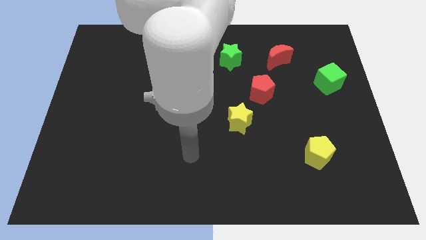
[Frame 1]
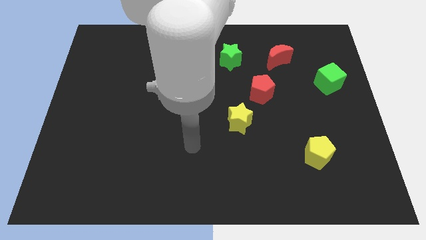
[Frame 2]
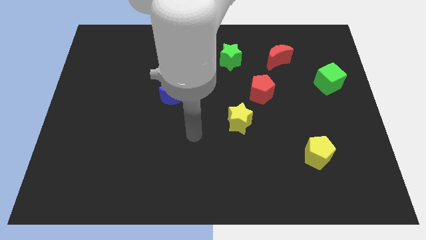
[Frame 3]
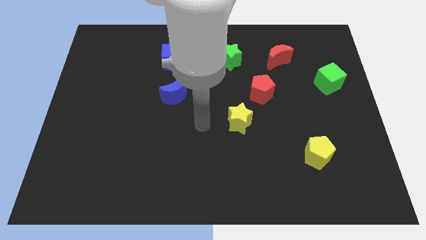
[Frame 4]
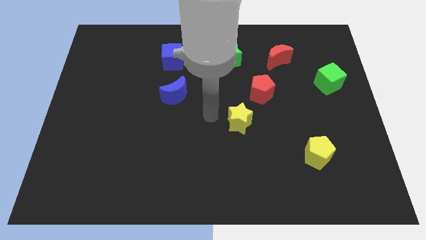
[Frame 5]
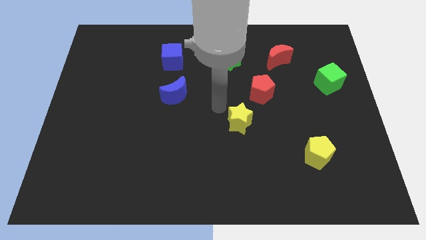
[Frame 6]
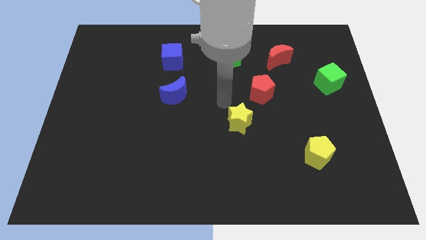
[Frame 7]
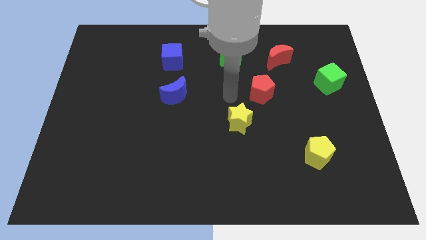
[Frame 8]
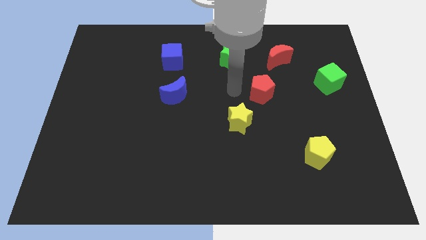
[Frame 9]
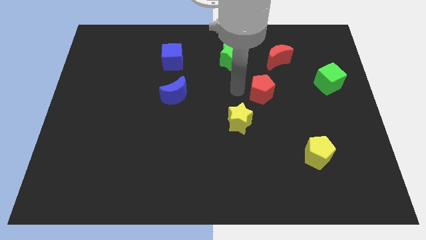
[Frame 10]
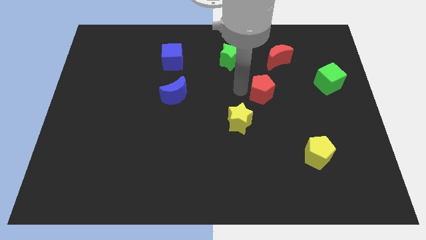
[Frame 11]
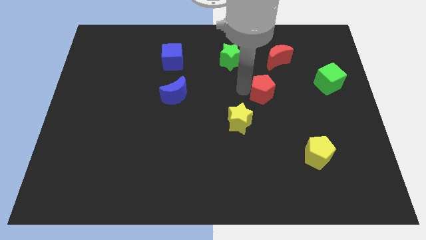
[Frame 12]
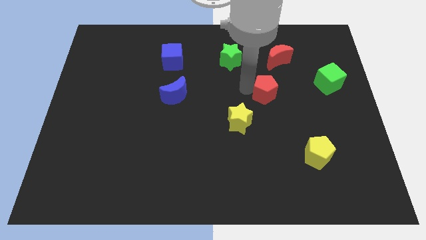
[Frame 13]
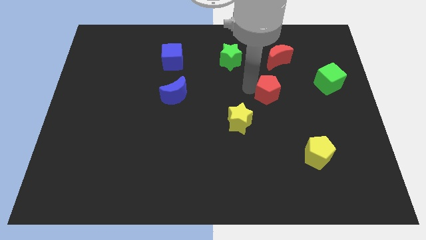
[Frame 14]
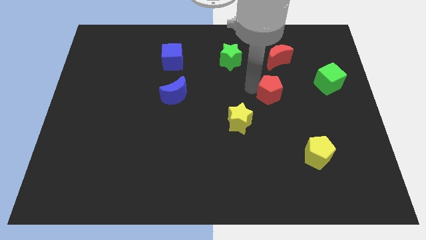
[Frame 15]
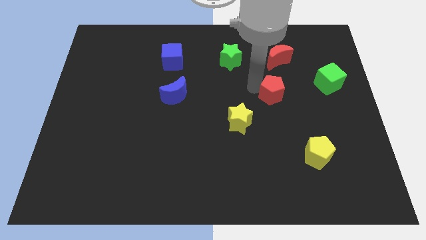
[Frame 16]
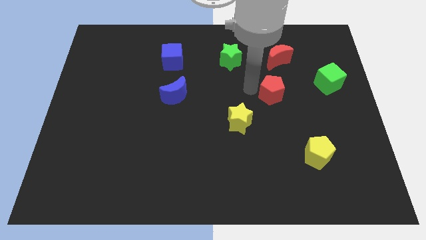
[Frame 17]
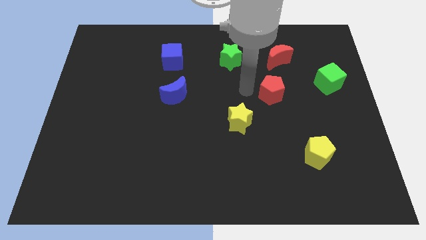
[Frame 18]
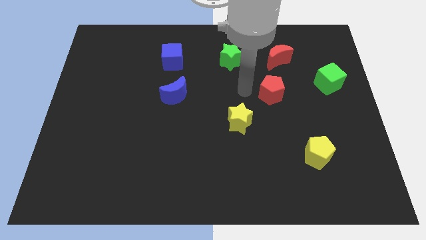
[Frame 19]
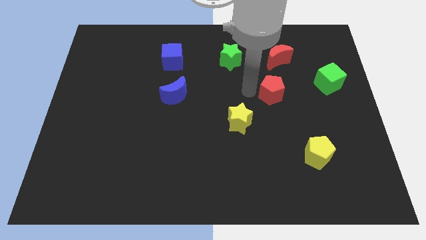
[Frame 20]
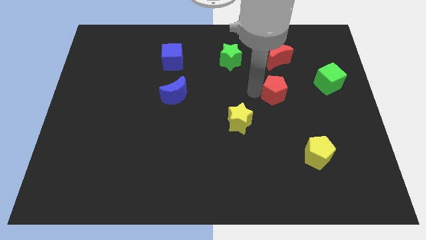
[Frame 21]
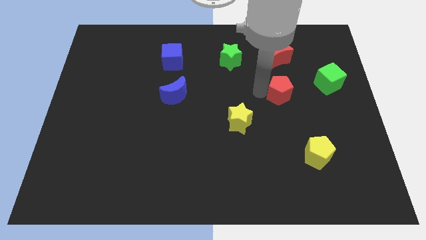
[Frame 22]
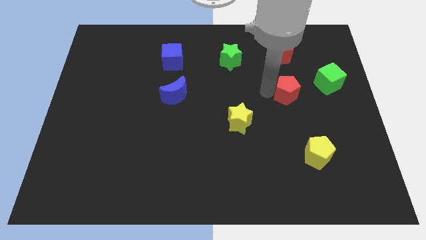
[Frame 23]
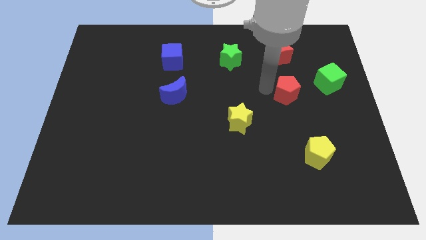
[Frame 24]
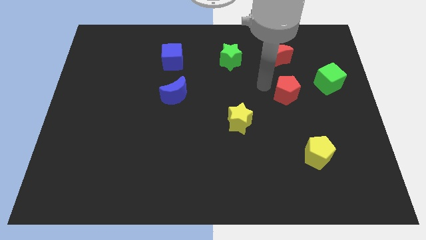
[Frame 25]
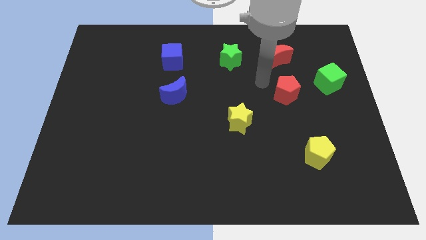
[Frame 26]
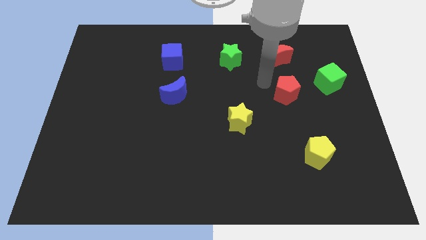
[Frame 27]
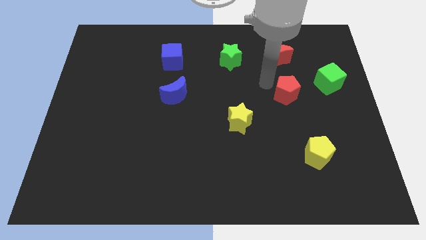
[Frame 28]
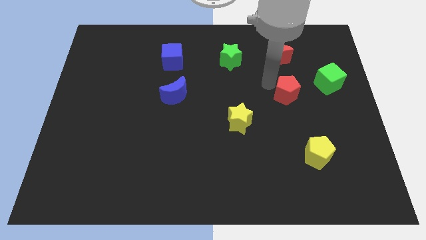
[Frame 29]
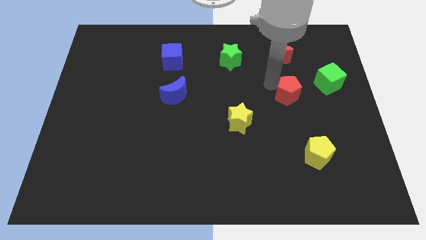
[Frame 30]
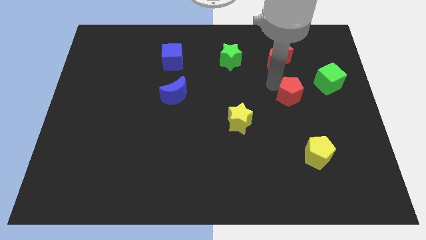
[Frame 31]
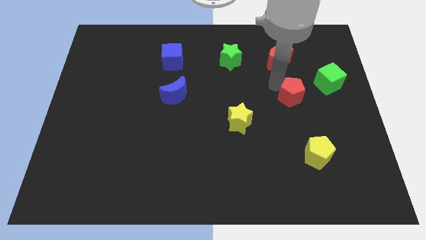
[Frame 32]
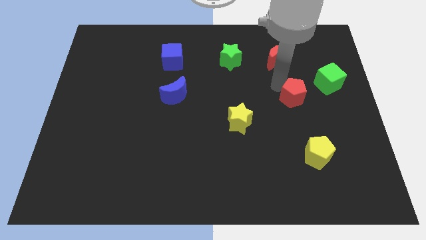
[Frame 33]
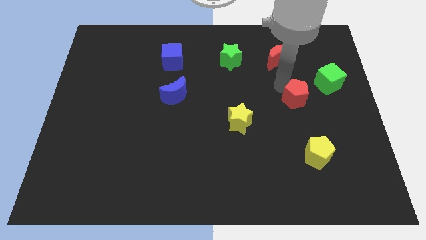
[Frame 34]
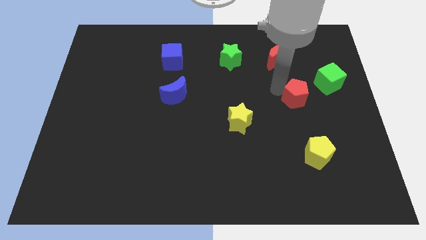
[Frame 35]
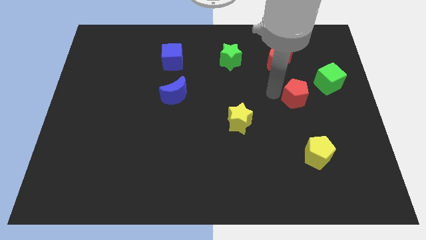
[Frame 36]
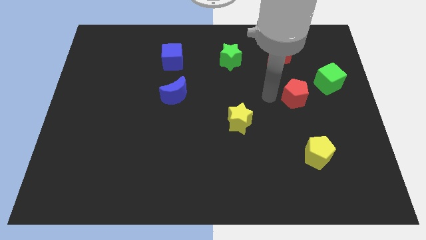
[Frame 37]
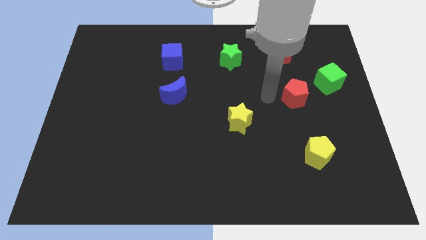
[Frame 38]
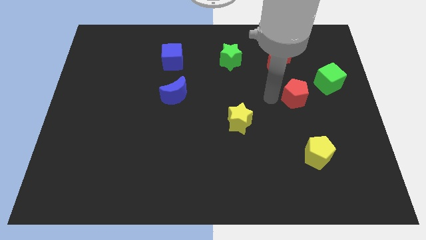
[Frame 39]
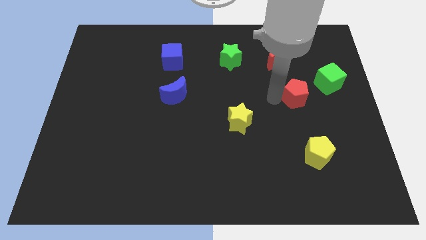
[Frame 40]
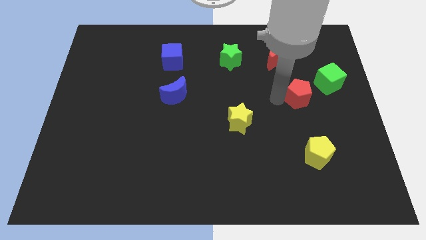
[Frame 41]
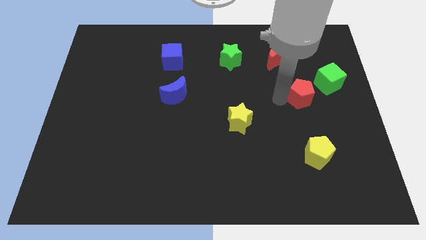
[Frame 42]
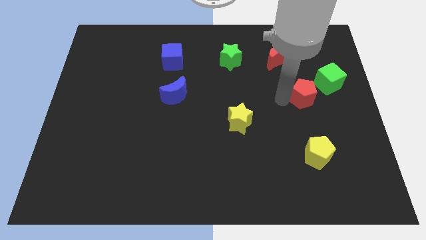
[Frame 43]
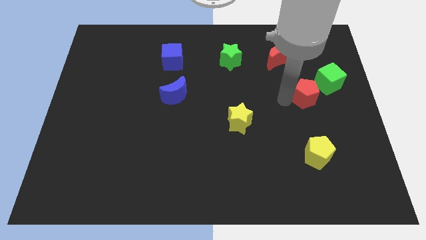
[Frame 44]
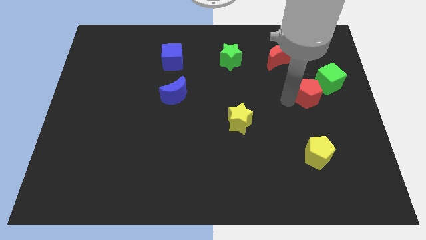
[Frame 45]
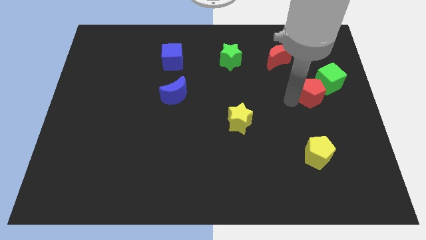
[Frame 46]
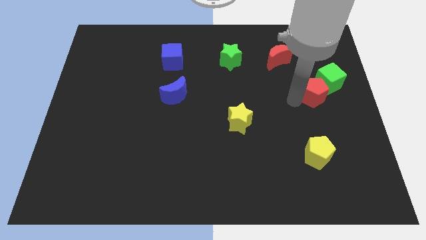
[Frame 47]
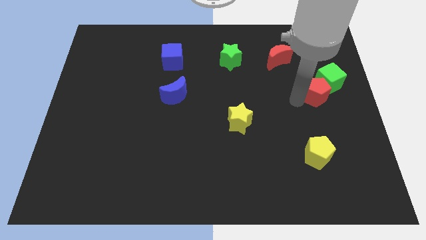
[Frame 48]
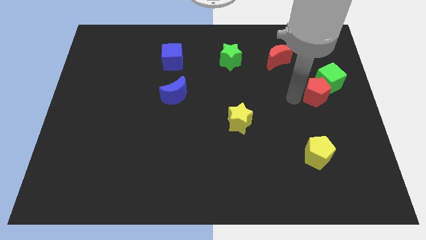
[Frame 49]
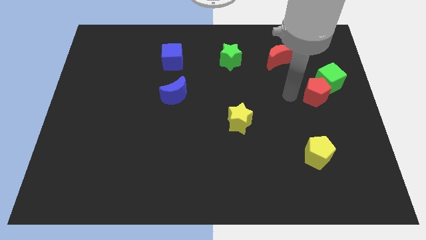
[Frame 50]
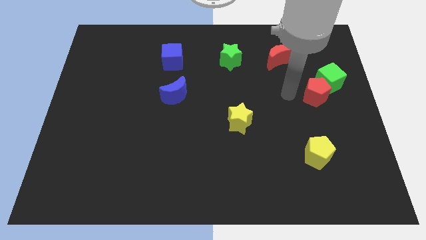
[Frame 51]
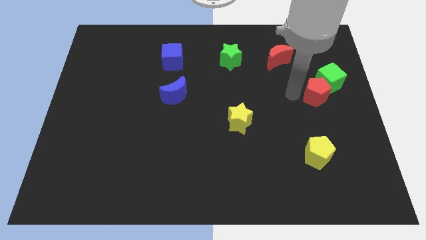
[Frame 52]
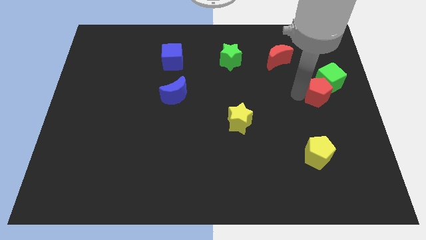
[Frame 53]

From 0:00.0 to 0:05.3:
move the red pentagon to the center right

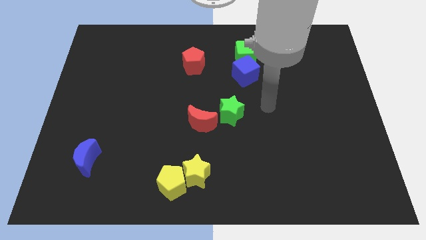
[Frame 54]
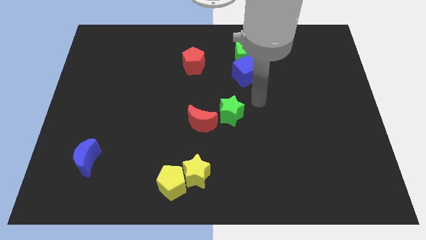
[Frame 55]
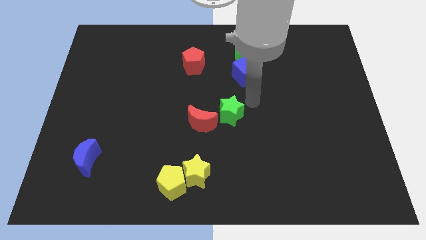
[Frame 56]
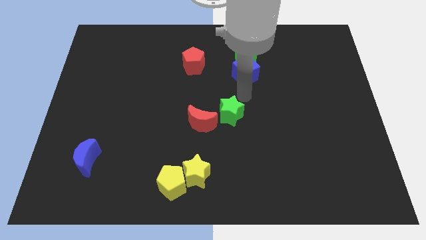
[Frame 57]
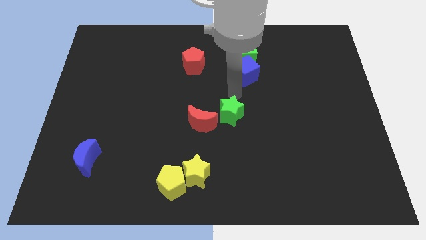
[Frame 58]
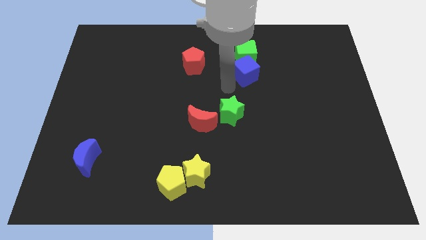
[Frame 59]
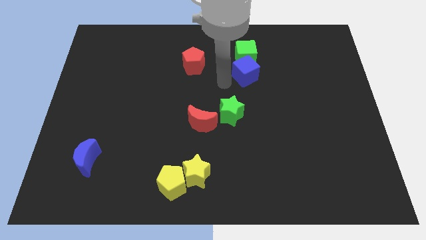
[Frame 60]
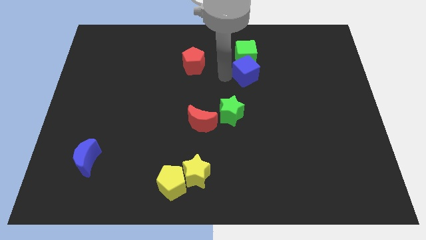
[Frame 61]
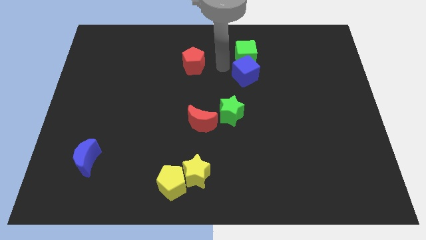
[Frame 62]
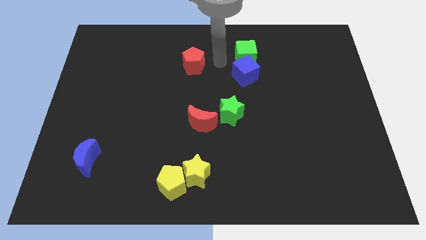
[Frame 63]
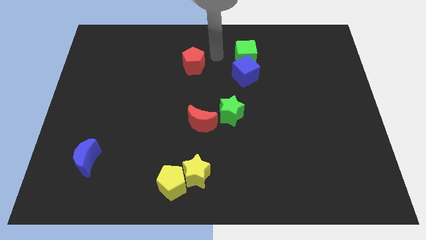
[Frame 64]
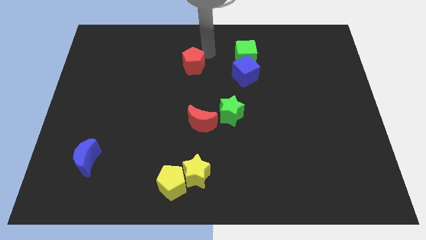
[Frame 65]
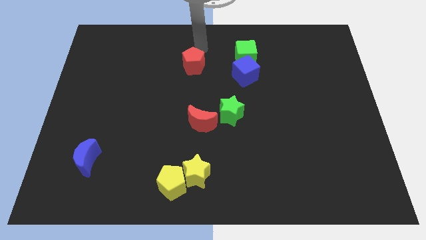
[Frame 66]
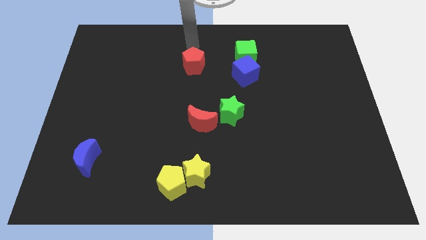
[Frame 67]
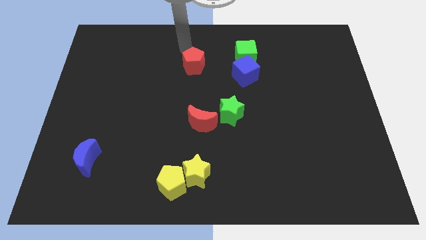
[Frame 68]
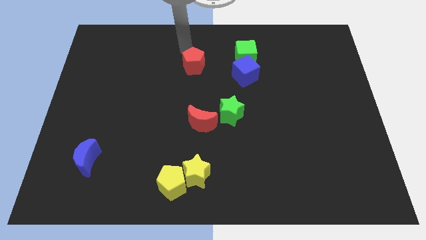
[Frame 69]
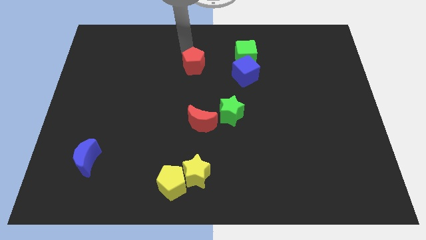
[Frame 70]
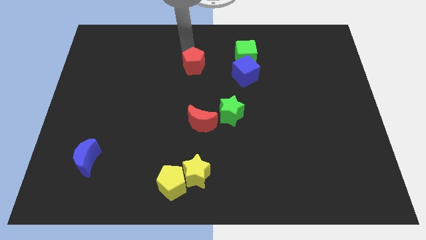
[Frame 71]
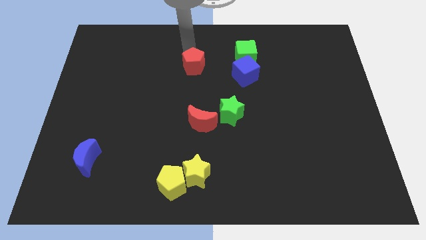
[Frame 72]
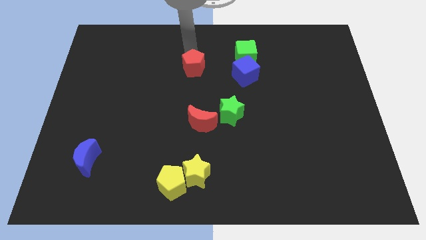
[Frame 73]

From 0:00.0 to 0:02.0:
slide the red pentagon to the center of the board

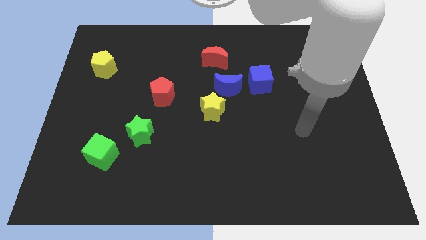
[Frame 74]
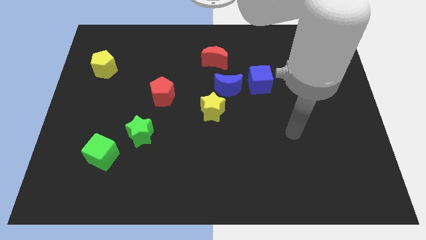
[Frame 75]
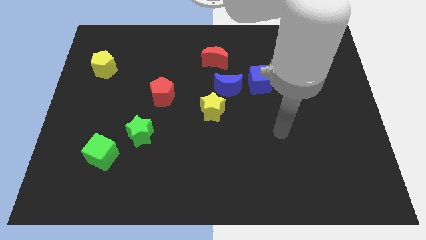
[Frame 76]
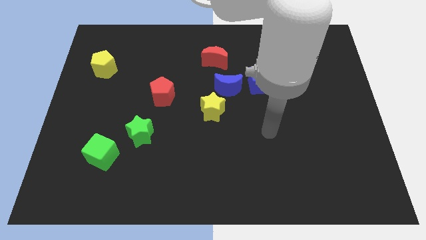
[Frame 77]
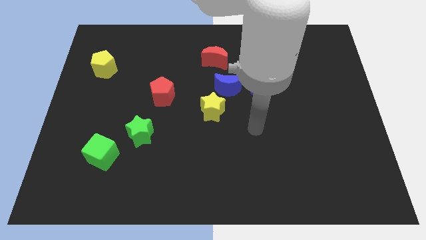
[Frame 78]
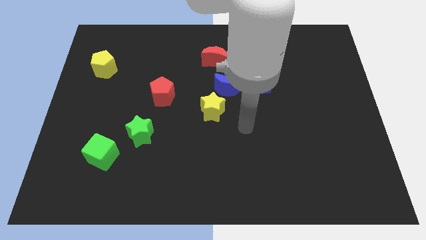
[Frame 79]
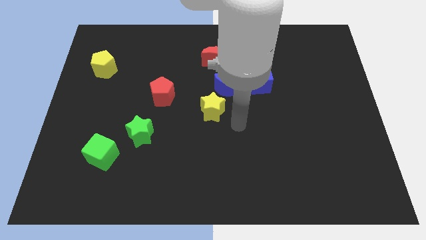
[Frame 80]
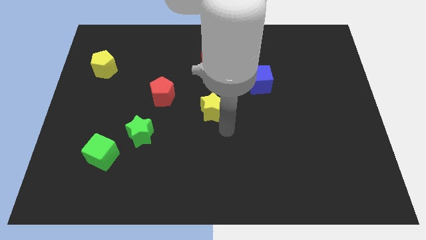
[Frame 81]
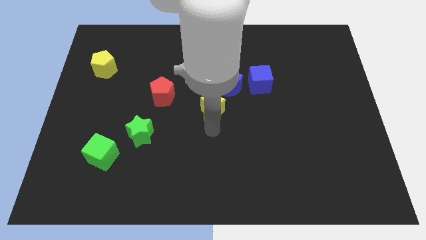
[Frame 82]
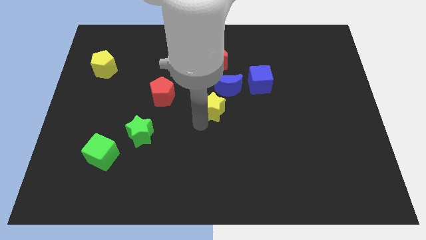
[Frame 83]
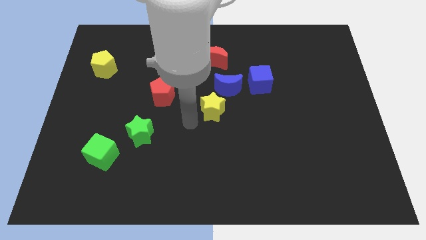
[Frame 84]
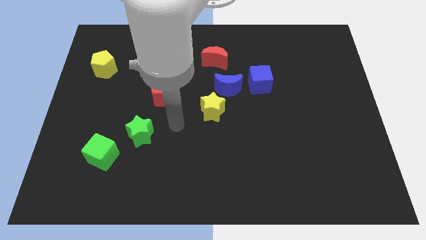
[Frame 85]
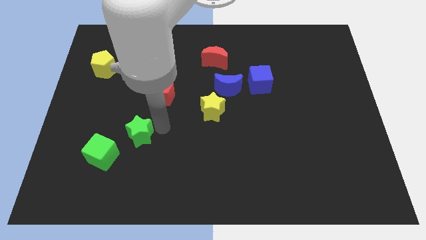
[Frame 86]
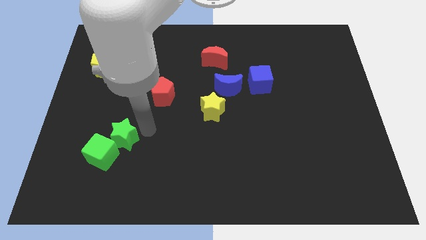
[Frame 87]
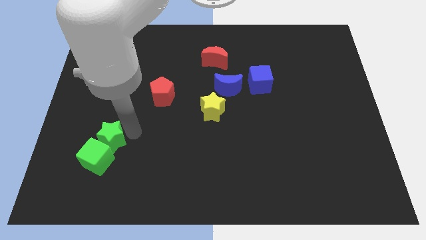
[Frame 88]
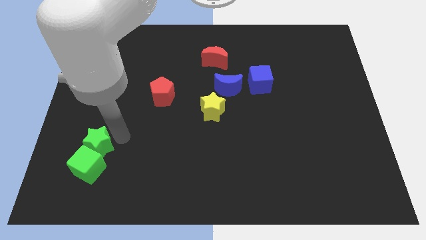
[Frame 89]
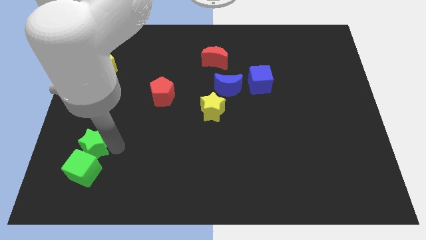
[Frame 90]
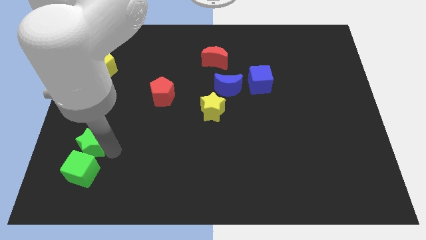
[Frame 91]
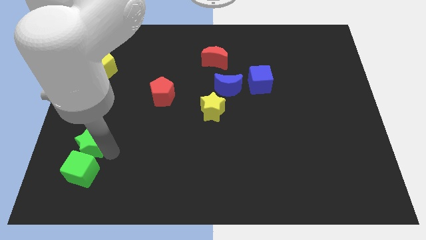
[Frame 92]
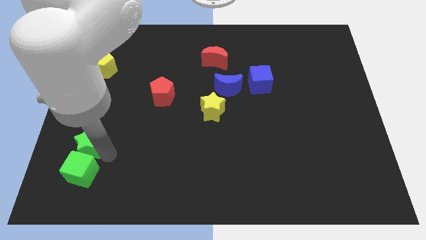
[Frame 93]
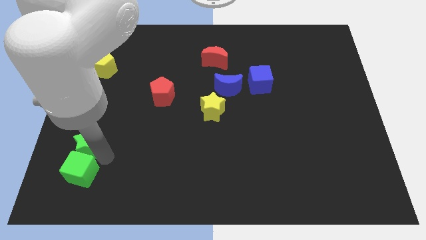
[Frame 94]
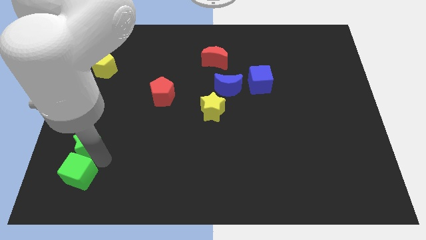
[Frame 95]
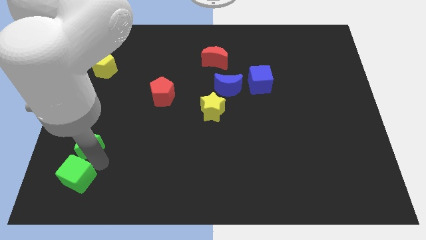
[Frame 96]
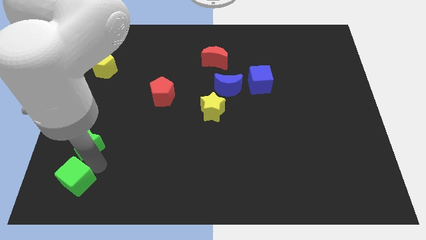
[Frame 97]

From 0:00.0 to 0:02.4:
put the green cube to the bottom left corner
